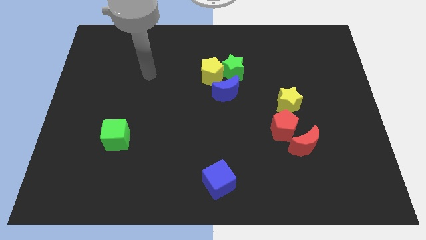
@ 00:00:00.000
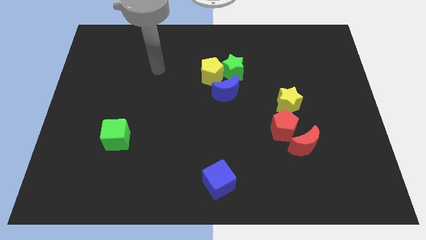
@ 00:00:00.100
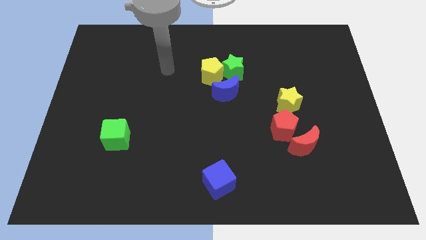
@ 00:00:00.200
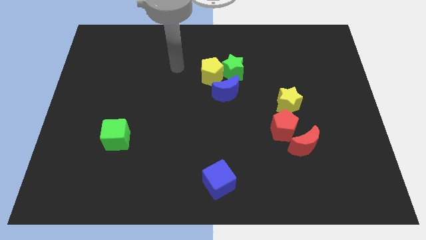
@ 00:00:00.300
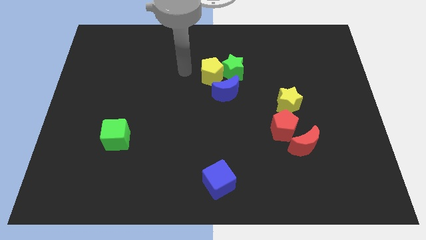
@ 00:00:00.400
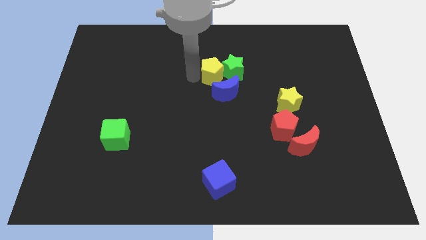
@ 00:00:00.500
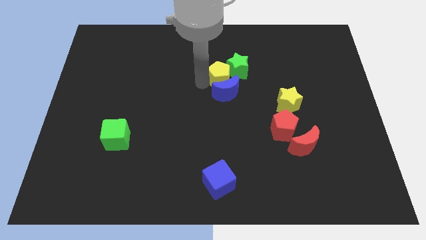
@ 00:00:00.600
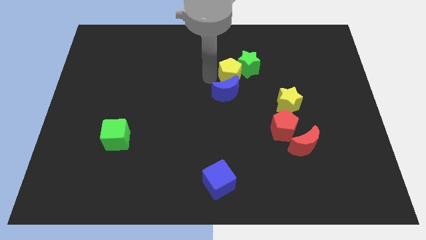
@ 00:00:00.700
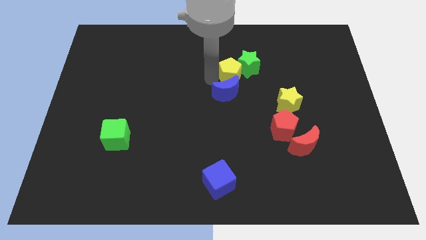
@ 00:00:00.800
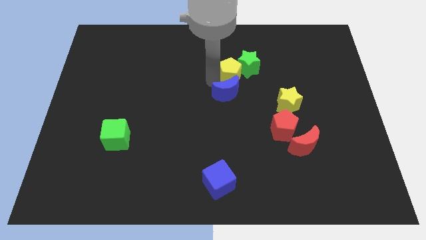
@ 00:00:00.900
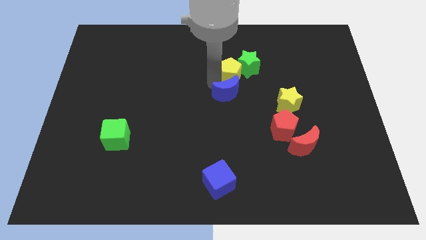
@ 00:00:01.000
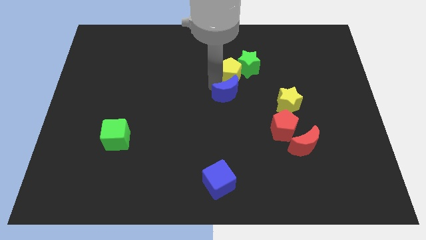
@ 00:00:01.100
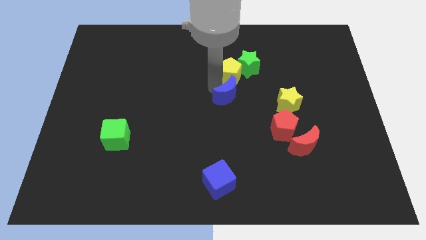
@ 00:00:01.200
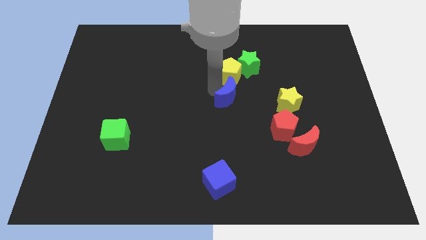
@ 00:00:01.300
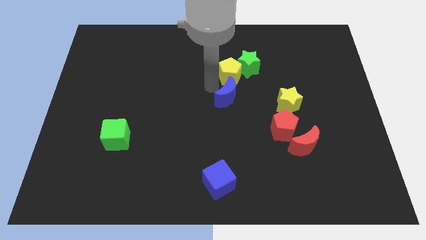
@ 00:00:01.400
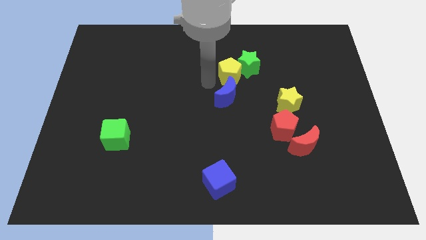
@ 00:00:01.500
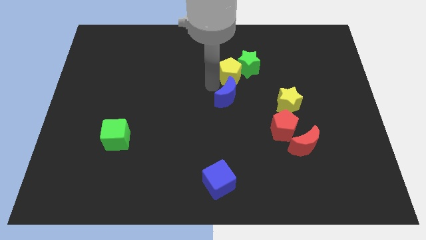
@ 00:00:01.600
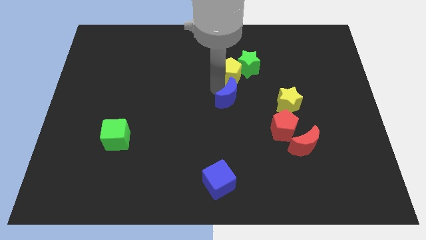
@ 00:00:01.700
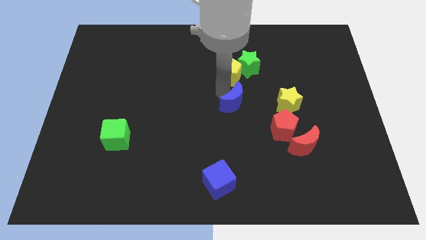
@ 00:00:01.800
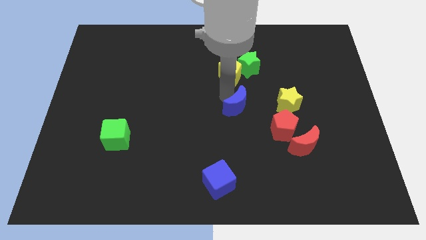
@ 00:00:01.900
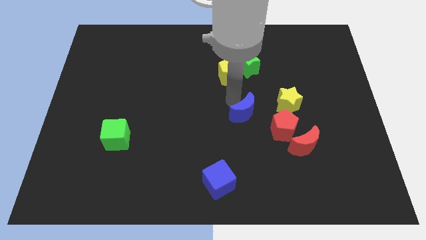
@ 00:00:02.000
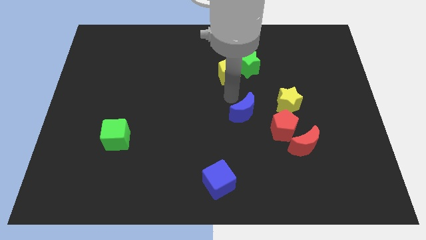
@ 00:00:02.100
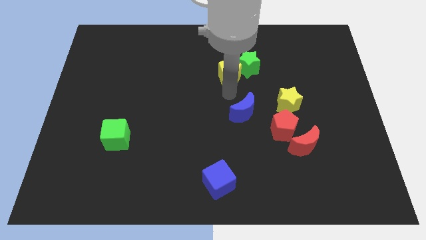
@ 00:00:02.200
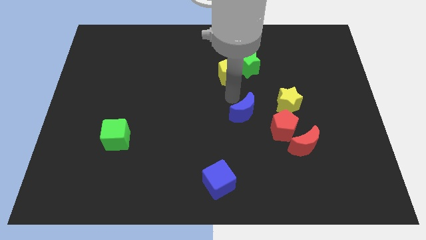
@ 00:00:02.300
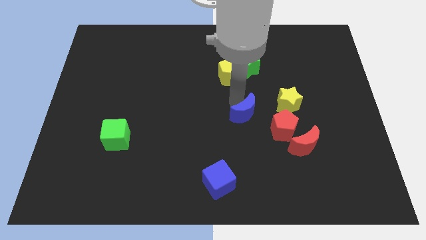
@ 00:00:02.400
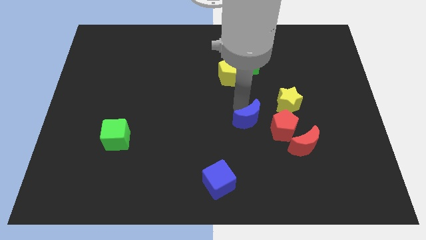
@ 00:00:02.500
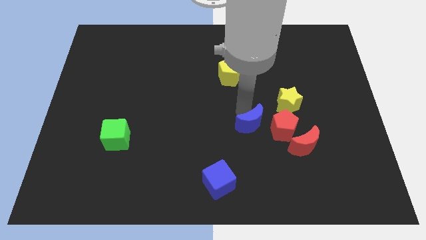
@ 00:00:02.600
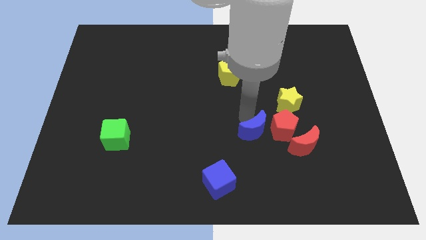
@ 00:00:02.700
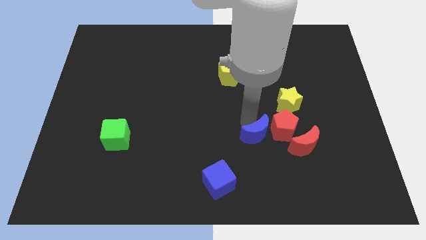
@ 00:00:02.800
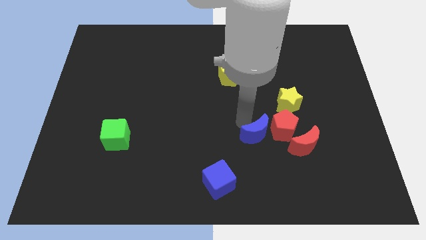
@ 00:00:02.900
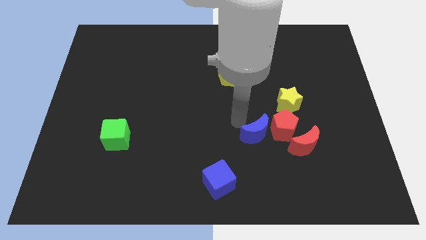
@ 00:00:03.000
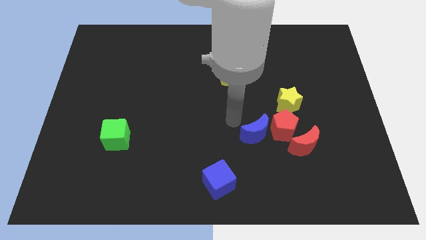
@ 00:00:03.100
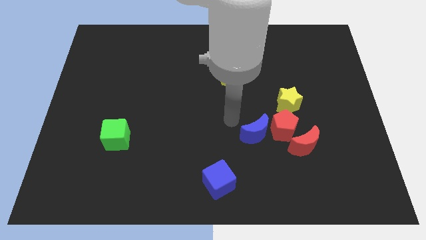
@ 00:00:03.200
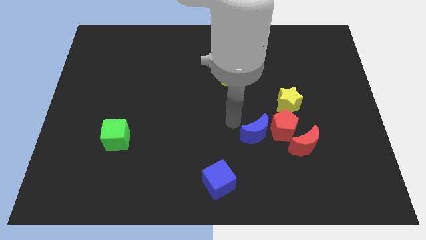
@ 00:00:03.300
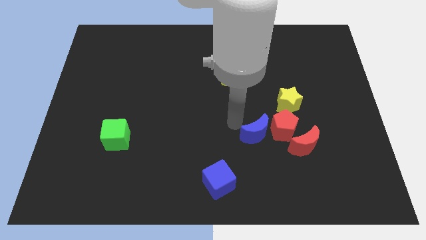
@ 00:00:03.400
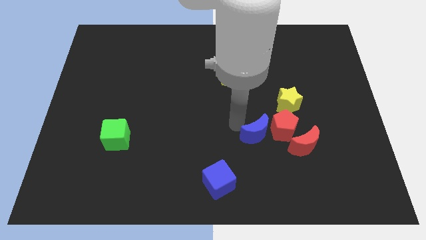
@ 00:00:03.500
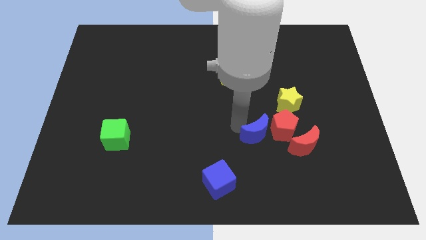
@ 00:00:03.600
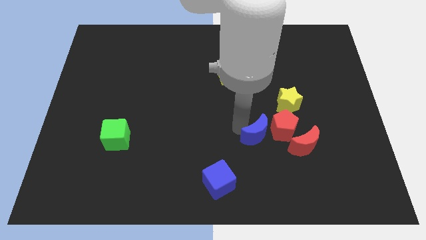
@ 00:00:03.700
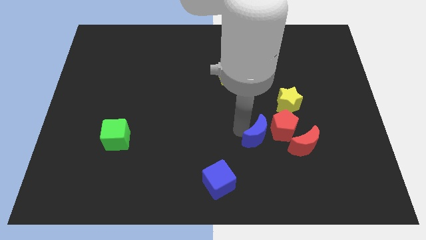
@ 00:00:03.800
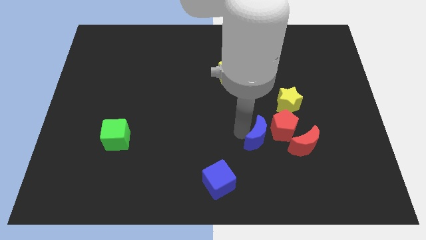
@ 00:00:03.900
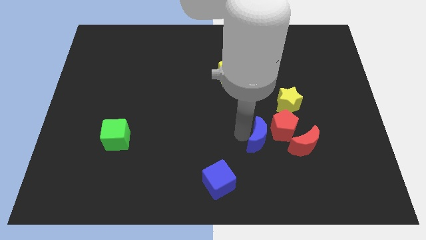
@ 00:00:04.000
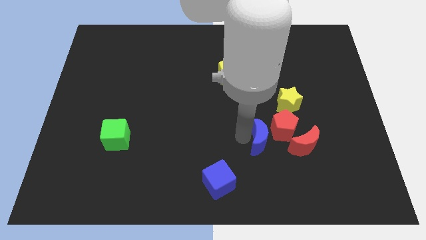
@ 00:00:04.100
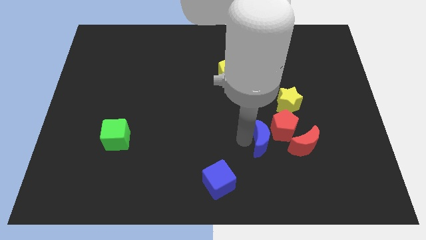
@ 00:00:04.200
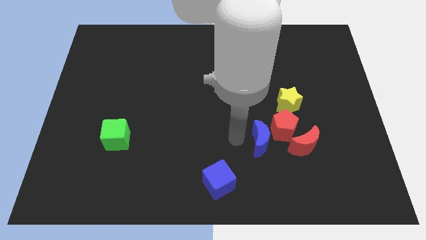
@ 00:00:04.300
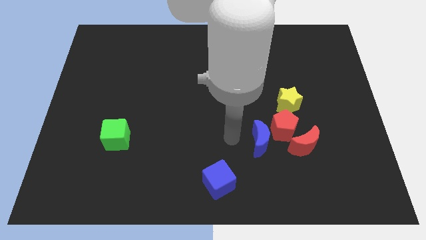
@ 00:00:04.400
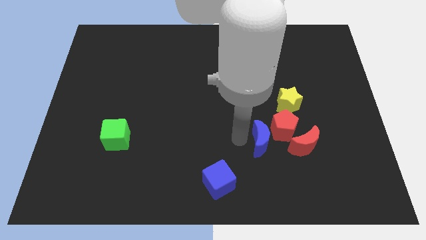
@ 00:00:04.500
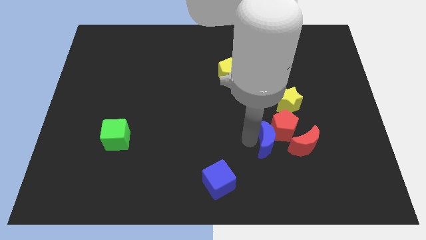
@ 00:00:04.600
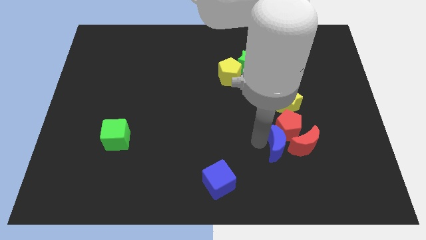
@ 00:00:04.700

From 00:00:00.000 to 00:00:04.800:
slide the blue moon towards the red moon

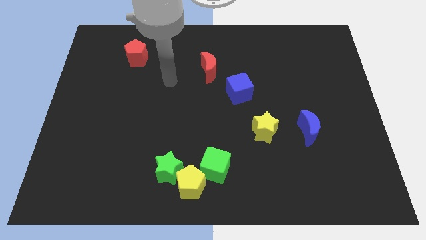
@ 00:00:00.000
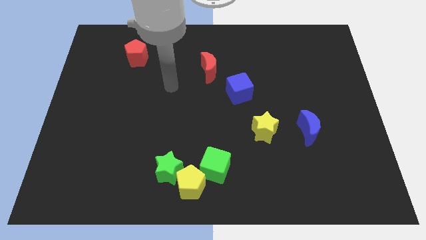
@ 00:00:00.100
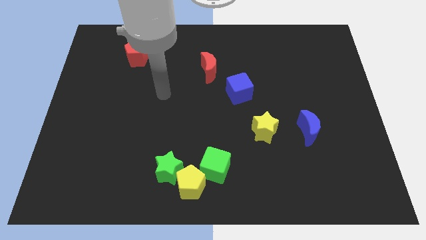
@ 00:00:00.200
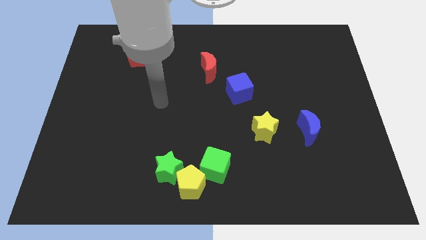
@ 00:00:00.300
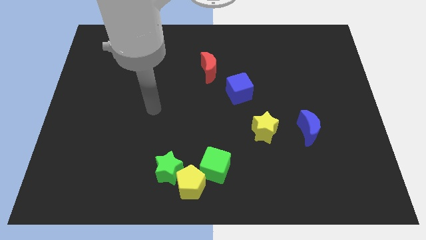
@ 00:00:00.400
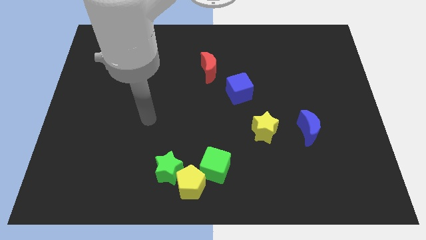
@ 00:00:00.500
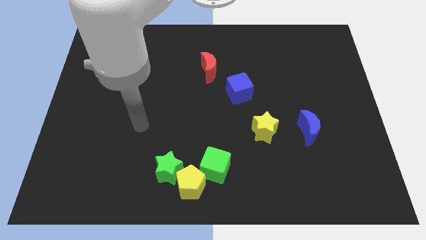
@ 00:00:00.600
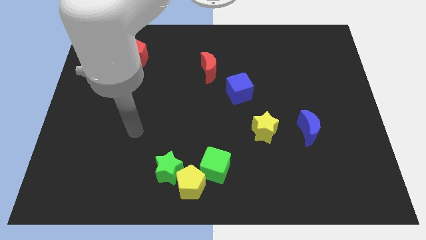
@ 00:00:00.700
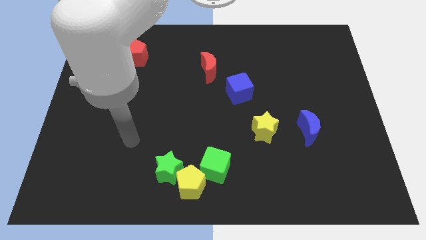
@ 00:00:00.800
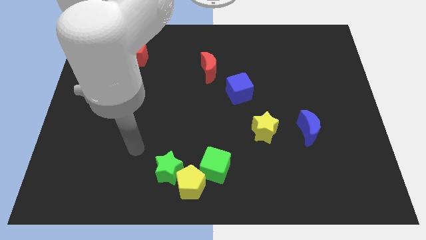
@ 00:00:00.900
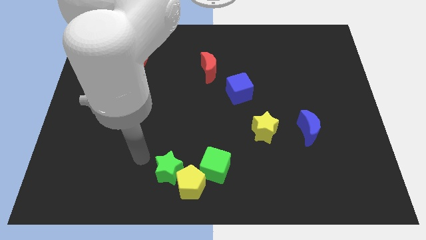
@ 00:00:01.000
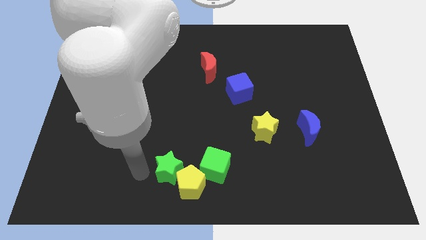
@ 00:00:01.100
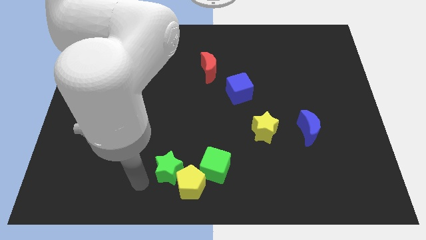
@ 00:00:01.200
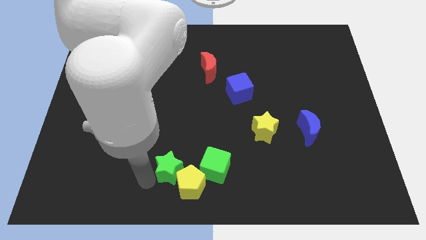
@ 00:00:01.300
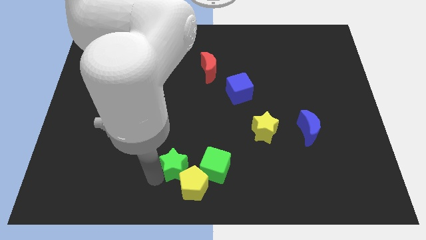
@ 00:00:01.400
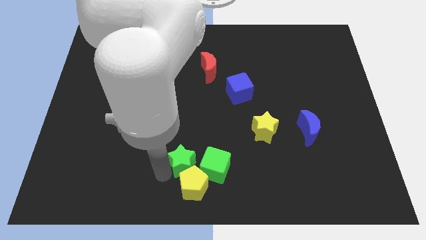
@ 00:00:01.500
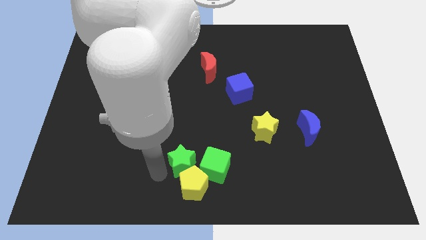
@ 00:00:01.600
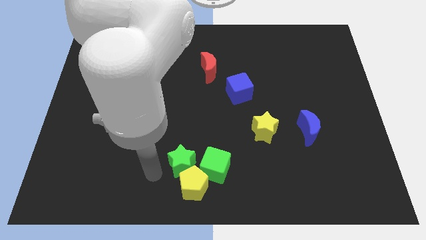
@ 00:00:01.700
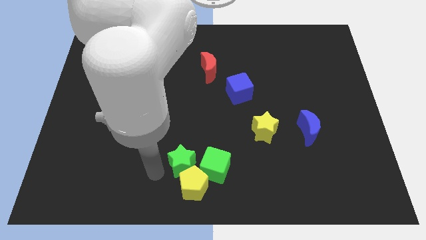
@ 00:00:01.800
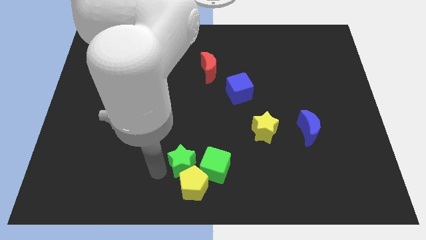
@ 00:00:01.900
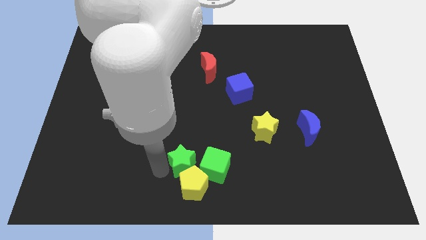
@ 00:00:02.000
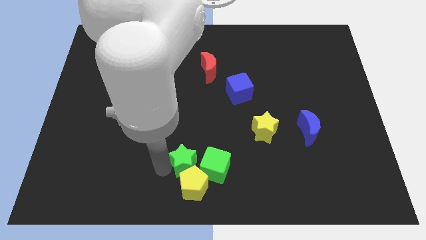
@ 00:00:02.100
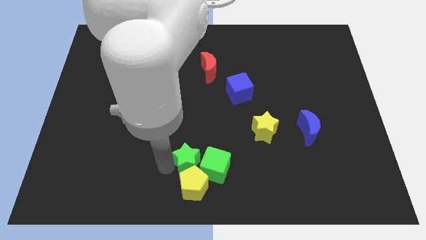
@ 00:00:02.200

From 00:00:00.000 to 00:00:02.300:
slide the green star next to the green cube

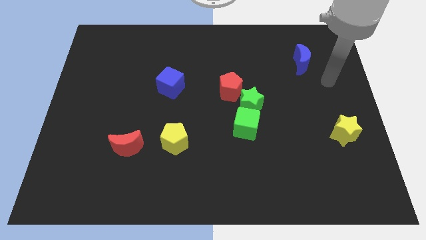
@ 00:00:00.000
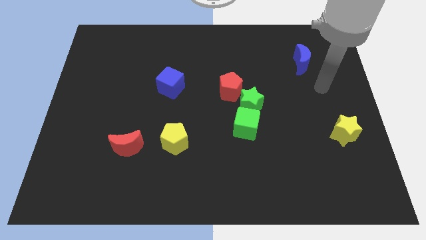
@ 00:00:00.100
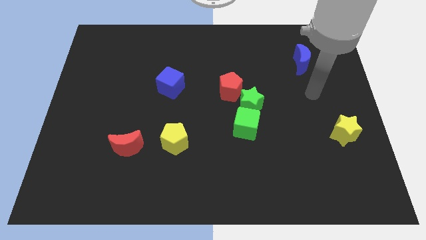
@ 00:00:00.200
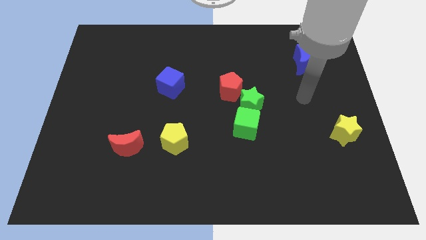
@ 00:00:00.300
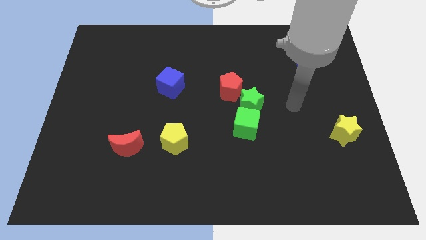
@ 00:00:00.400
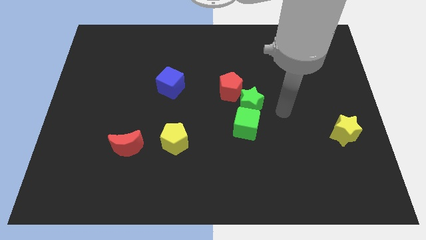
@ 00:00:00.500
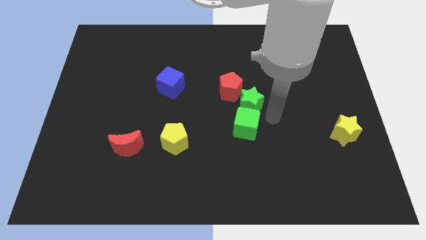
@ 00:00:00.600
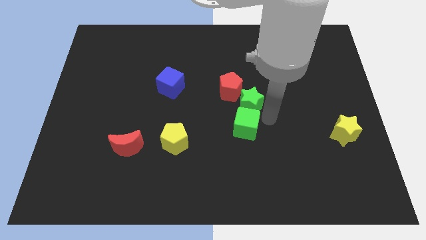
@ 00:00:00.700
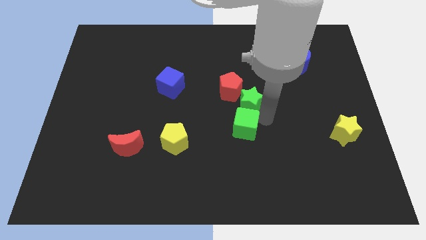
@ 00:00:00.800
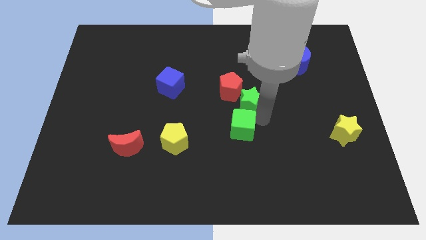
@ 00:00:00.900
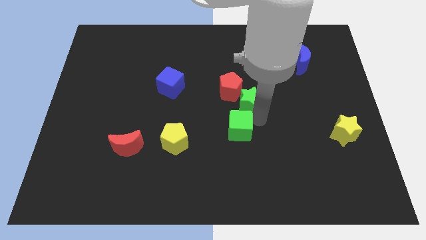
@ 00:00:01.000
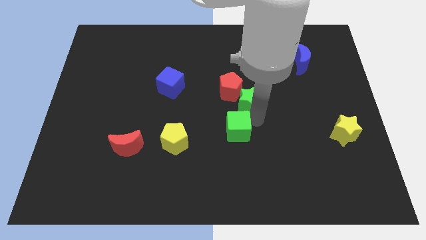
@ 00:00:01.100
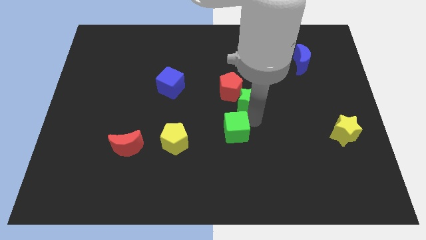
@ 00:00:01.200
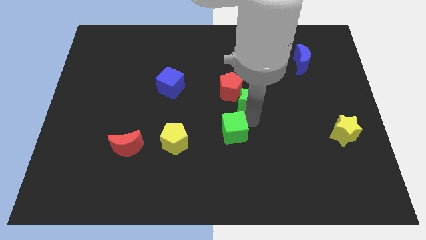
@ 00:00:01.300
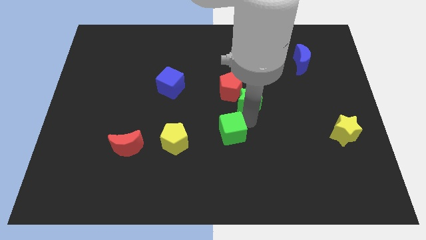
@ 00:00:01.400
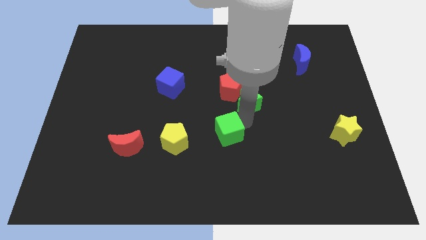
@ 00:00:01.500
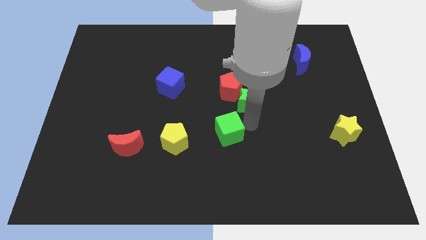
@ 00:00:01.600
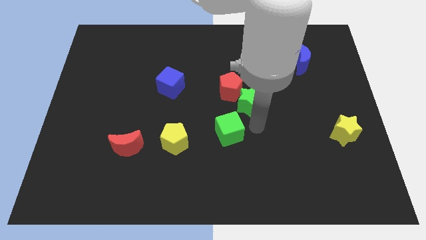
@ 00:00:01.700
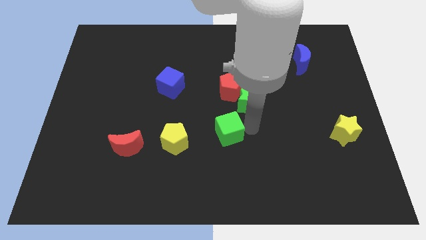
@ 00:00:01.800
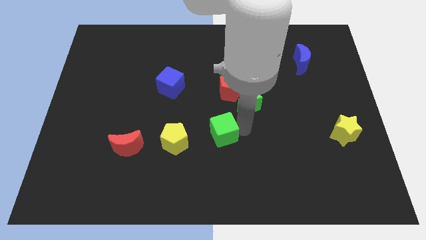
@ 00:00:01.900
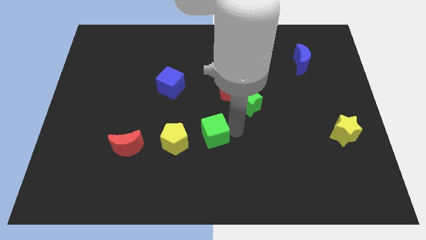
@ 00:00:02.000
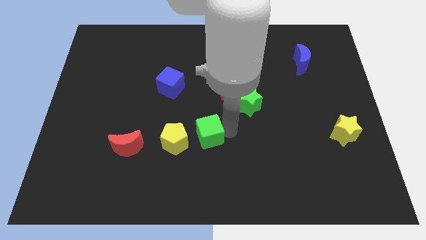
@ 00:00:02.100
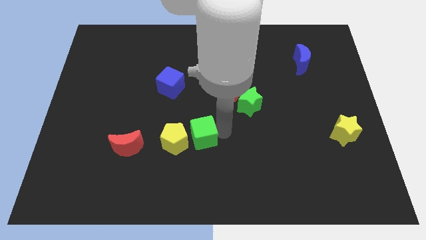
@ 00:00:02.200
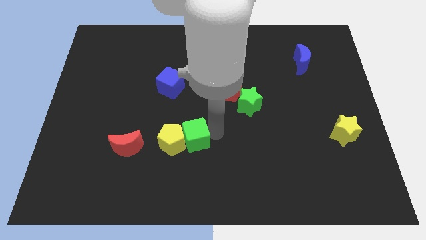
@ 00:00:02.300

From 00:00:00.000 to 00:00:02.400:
push the green cube close to the yellow pentagon
